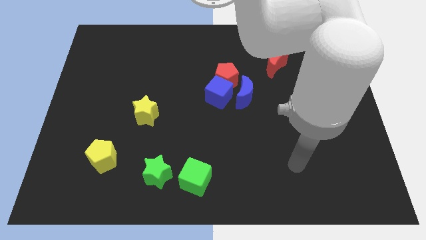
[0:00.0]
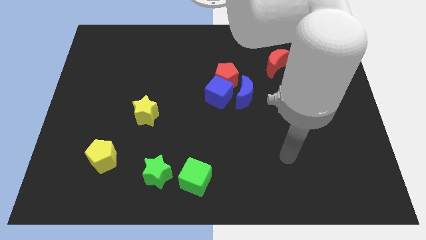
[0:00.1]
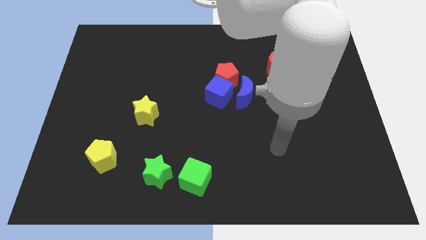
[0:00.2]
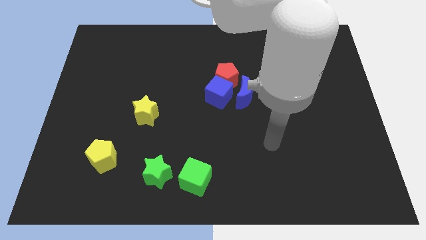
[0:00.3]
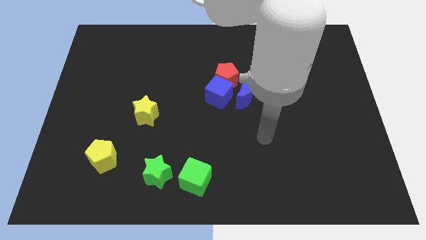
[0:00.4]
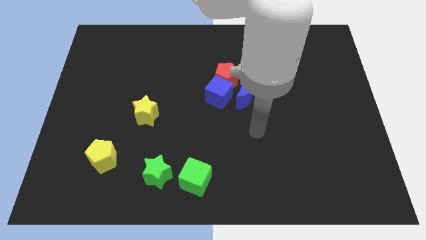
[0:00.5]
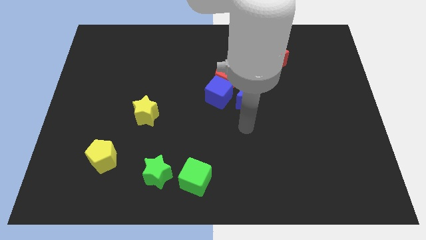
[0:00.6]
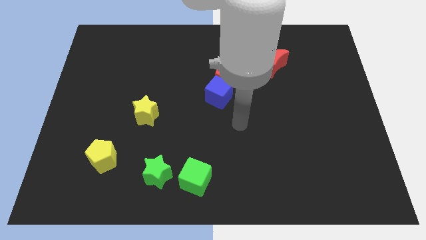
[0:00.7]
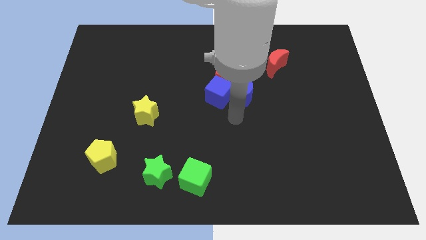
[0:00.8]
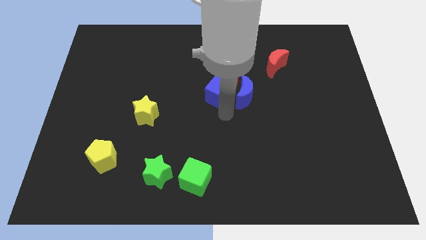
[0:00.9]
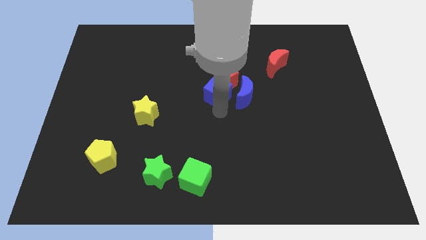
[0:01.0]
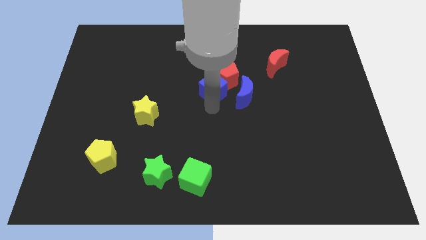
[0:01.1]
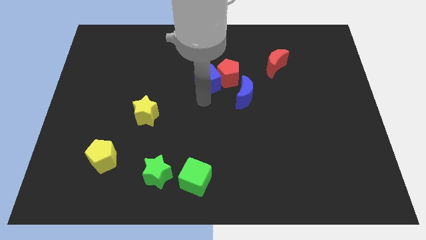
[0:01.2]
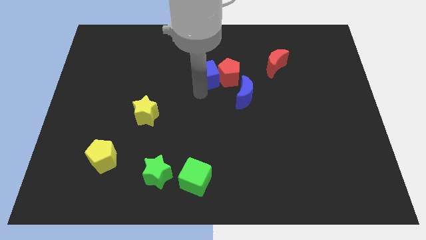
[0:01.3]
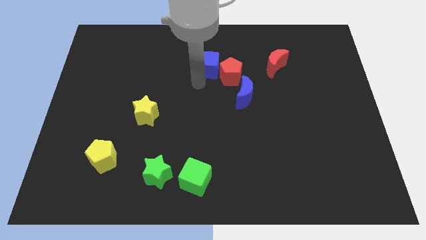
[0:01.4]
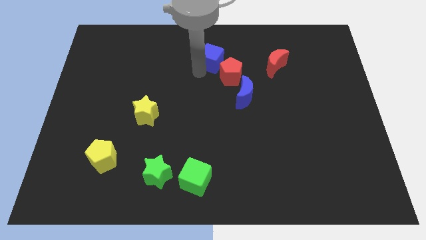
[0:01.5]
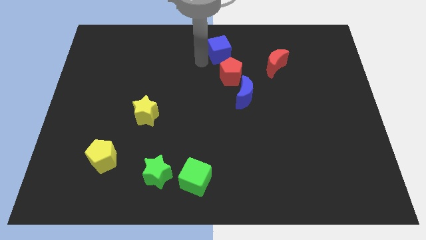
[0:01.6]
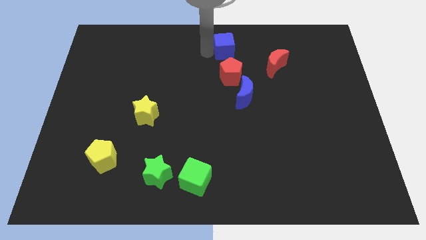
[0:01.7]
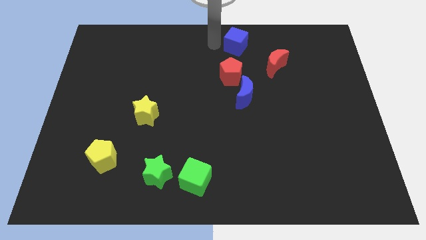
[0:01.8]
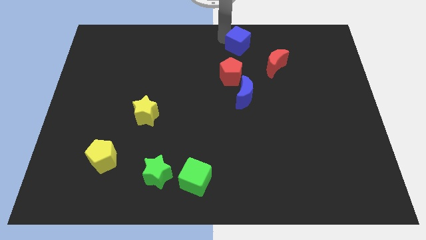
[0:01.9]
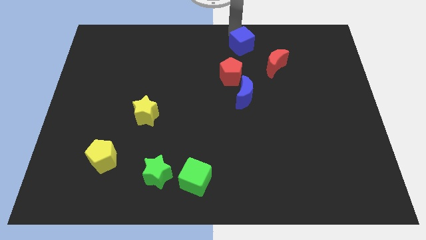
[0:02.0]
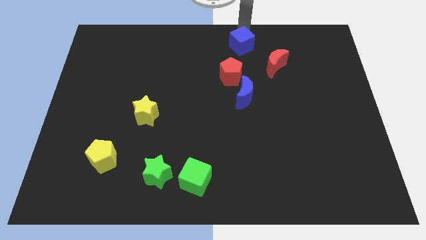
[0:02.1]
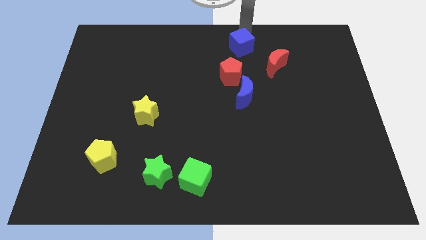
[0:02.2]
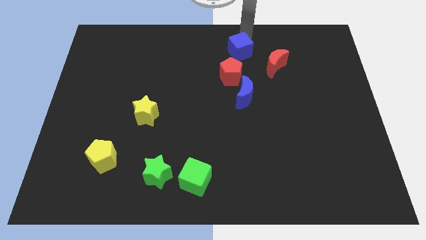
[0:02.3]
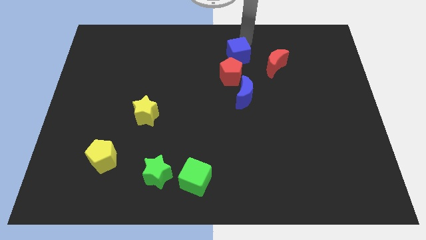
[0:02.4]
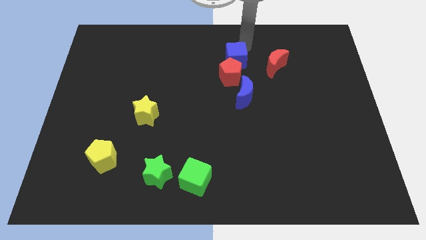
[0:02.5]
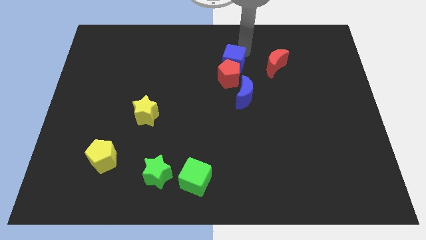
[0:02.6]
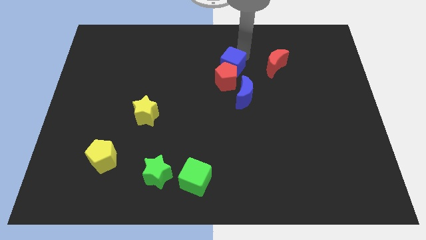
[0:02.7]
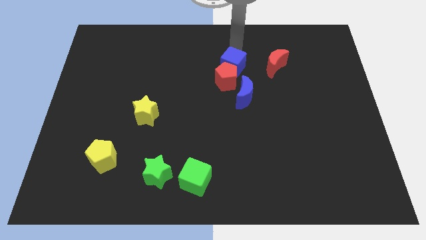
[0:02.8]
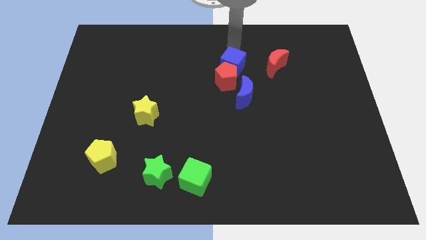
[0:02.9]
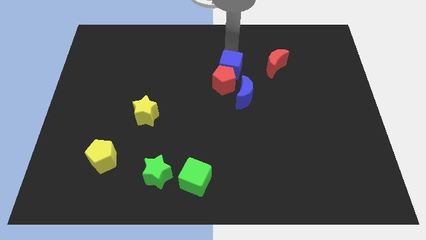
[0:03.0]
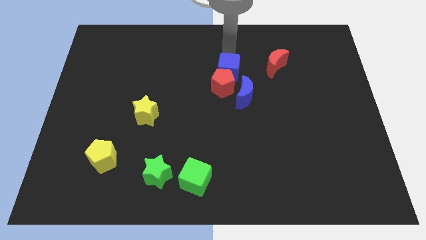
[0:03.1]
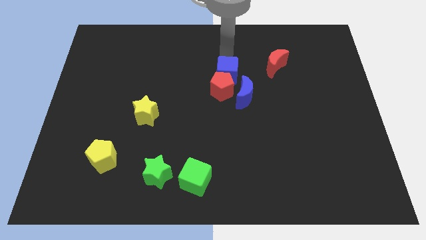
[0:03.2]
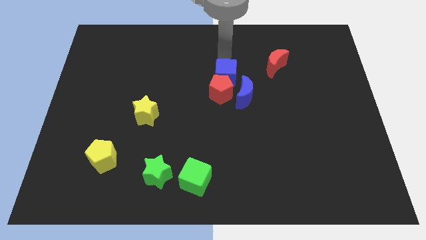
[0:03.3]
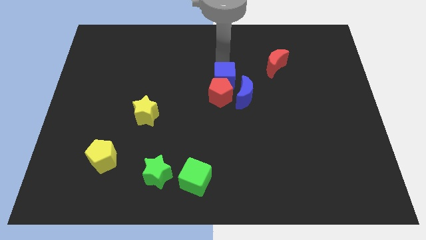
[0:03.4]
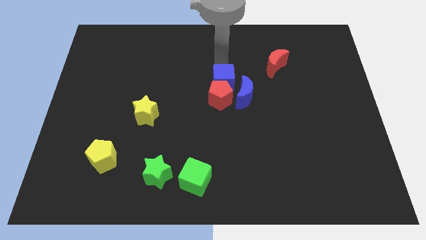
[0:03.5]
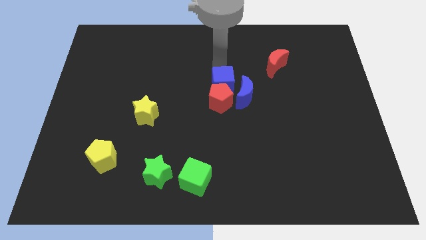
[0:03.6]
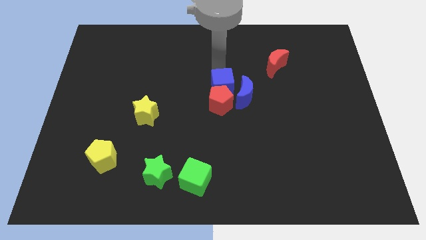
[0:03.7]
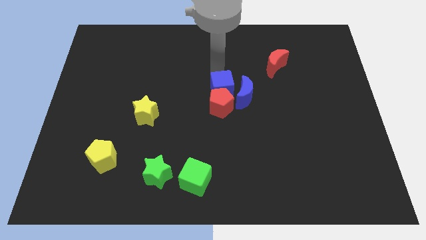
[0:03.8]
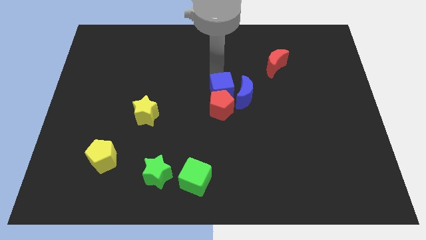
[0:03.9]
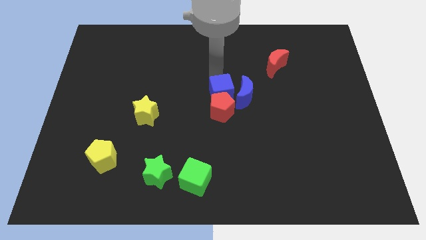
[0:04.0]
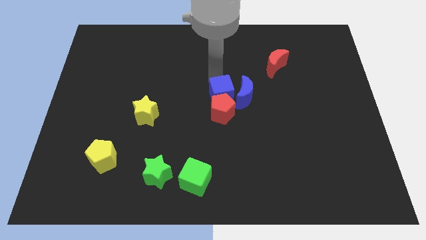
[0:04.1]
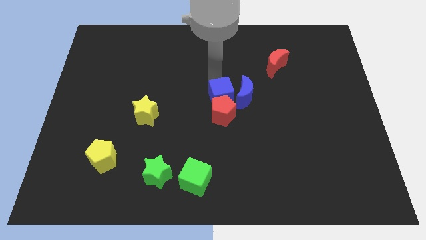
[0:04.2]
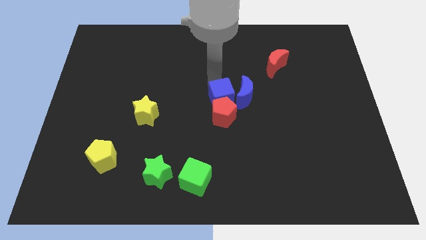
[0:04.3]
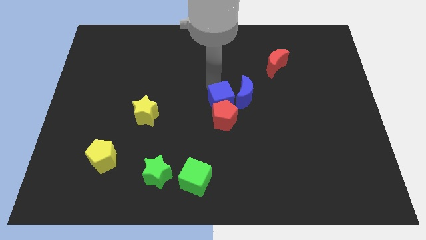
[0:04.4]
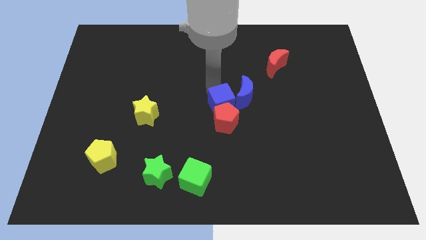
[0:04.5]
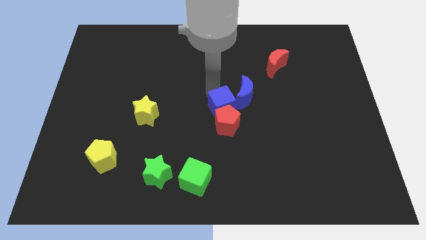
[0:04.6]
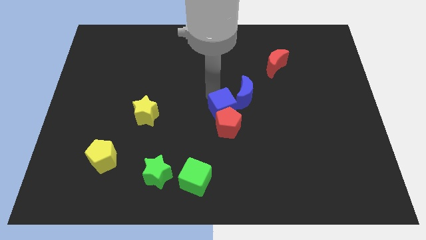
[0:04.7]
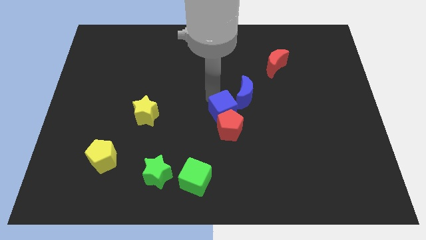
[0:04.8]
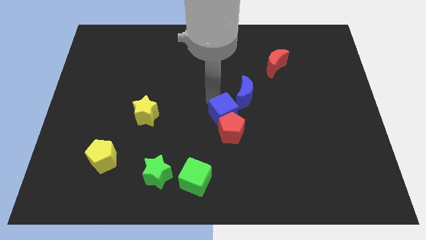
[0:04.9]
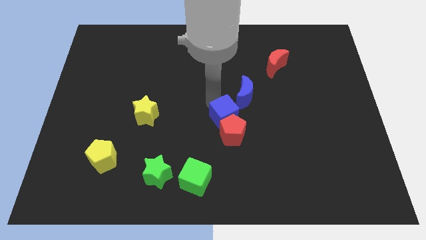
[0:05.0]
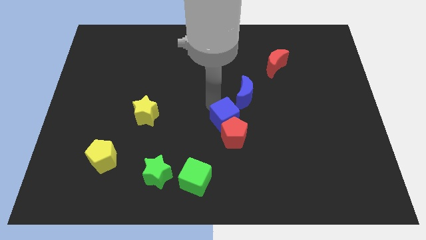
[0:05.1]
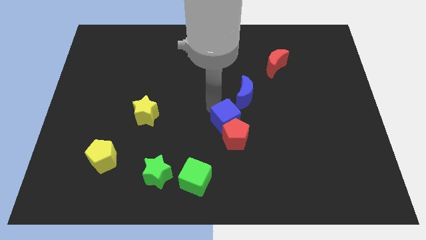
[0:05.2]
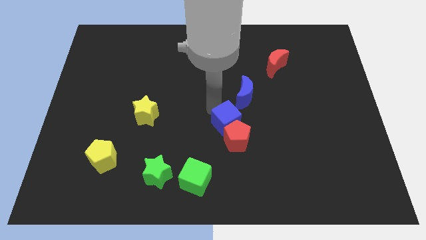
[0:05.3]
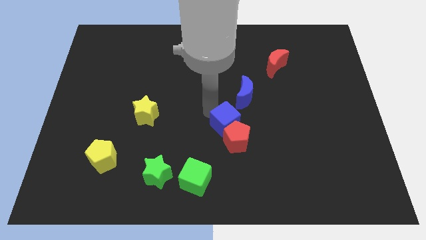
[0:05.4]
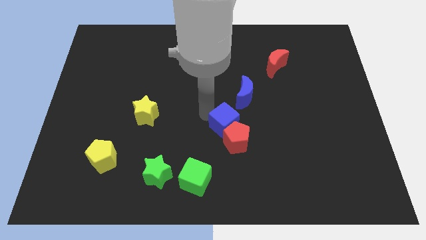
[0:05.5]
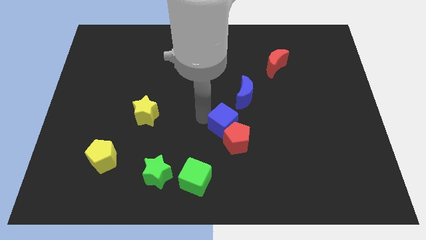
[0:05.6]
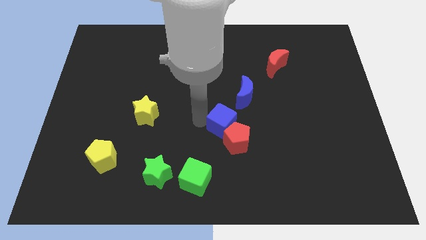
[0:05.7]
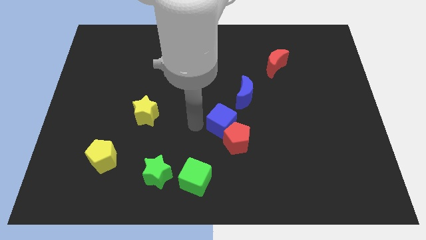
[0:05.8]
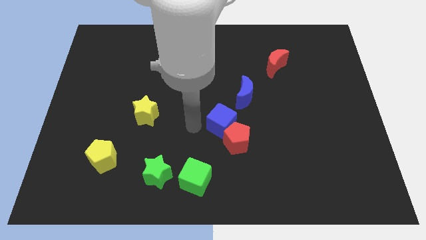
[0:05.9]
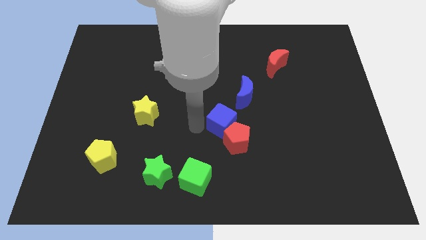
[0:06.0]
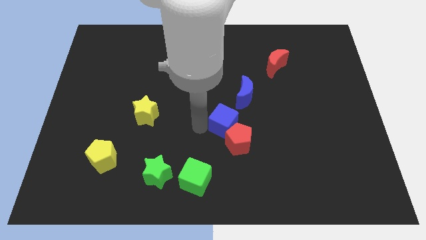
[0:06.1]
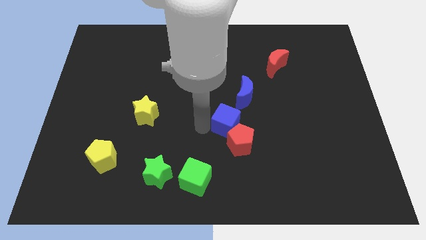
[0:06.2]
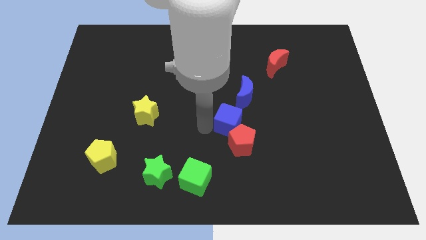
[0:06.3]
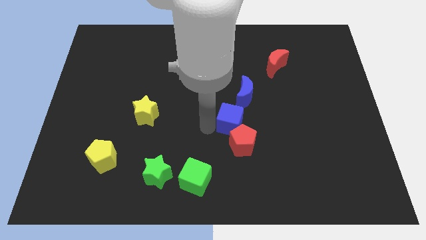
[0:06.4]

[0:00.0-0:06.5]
slightly move the blue cube down and then to the right

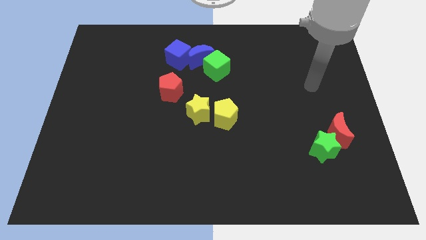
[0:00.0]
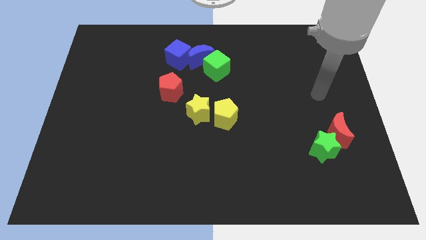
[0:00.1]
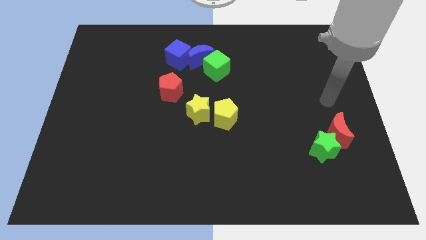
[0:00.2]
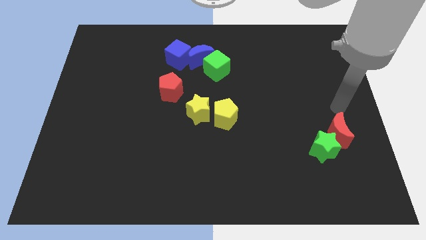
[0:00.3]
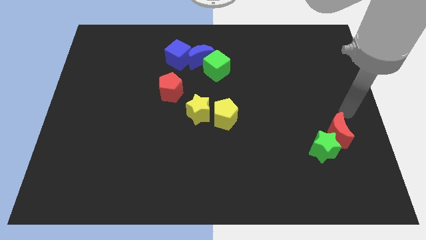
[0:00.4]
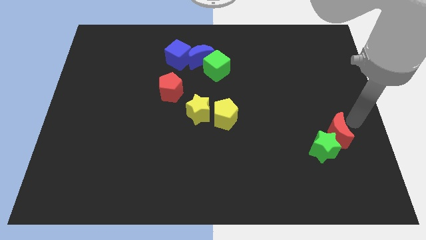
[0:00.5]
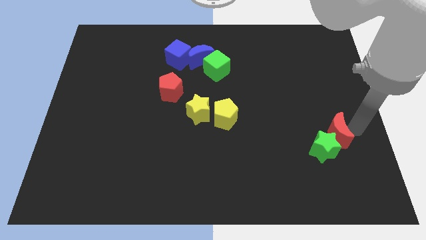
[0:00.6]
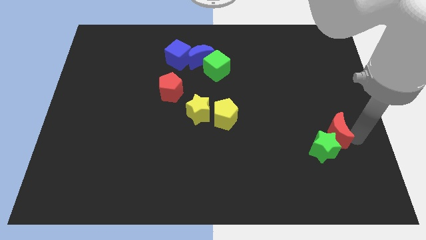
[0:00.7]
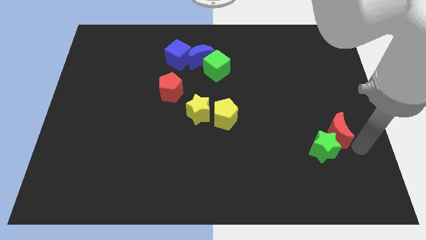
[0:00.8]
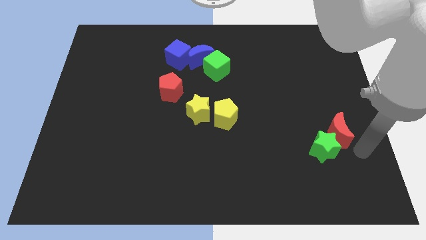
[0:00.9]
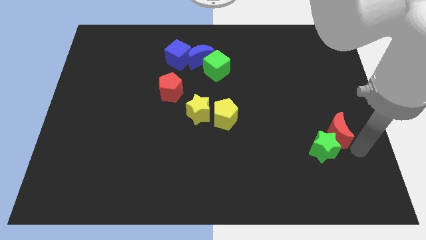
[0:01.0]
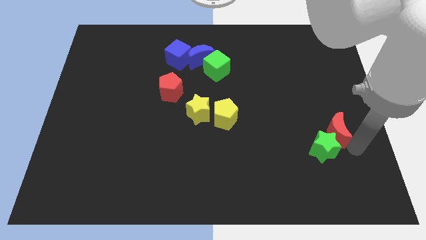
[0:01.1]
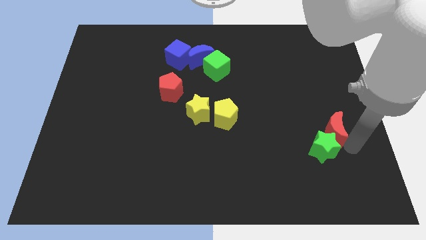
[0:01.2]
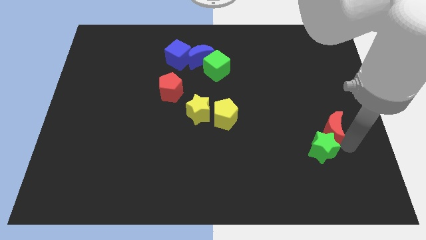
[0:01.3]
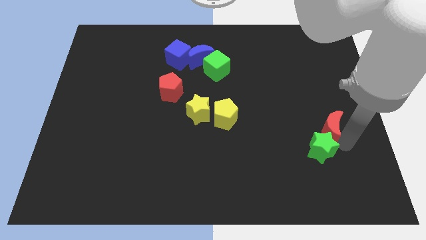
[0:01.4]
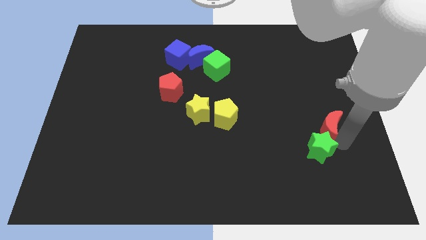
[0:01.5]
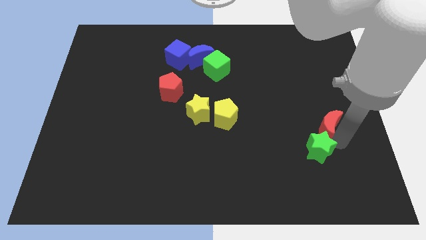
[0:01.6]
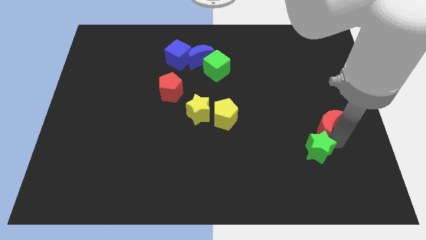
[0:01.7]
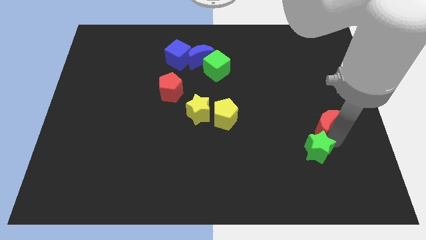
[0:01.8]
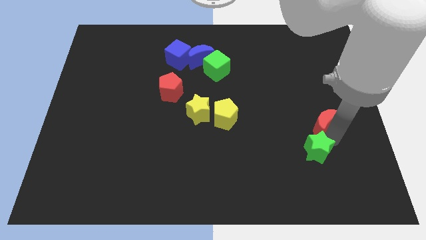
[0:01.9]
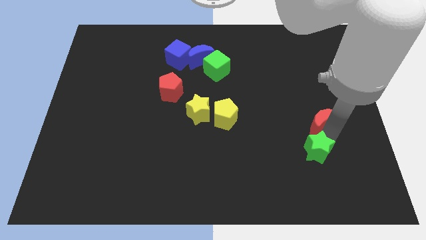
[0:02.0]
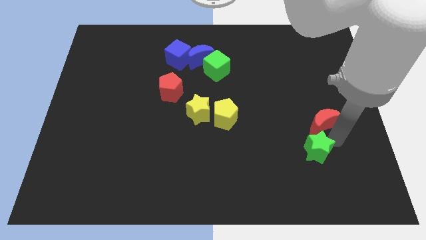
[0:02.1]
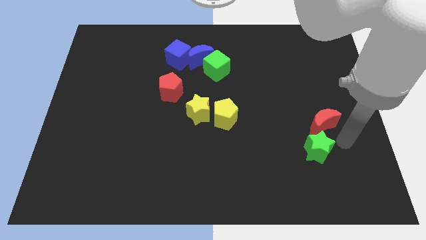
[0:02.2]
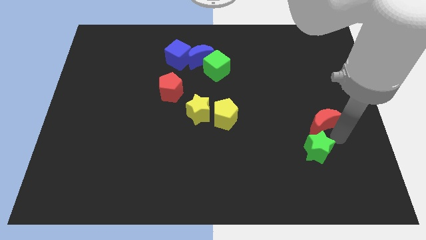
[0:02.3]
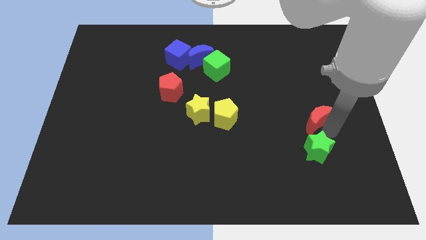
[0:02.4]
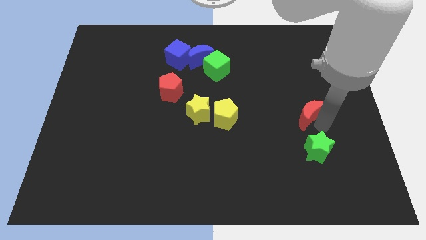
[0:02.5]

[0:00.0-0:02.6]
move the red moon up and left somewhat
